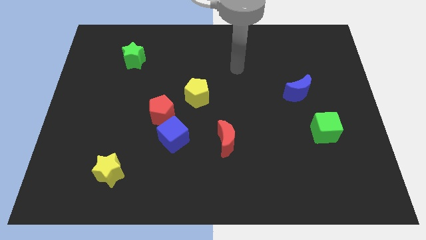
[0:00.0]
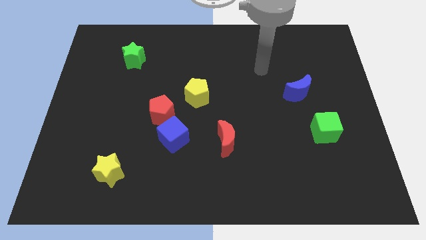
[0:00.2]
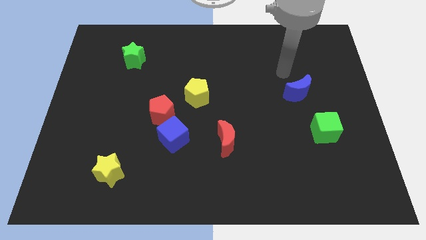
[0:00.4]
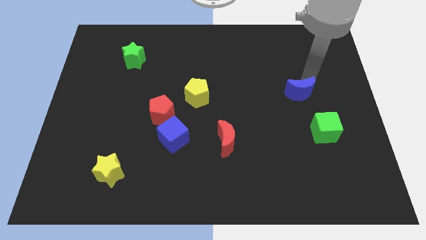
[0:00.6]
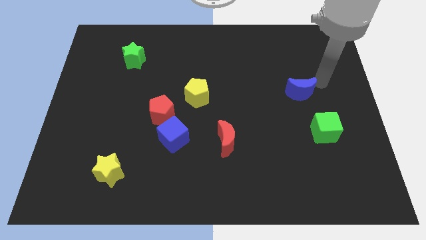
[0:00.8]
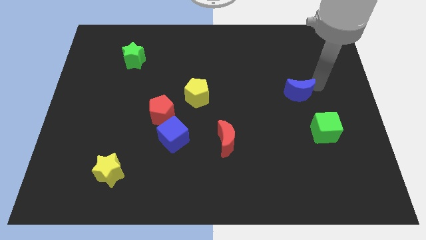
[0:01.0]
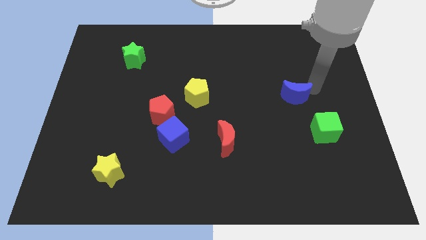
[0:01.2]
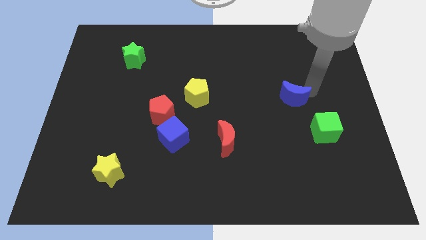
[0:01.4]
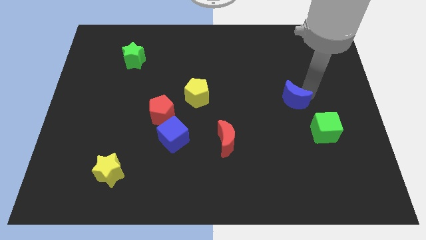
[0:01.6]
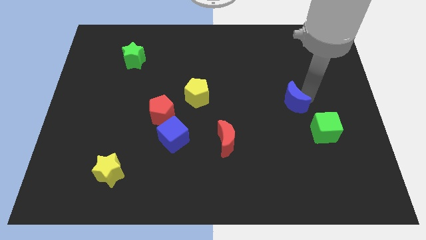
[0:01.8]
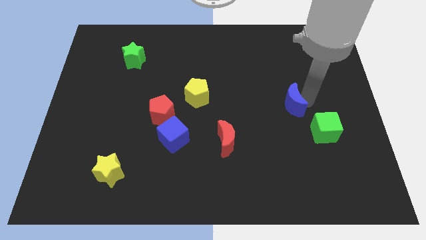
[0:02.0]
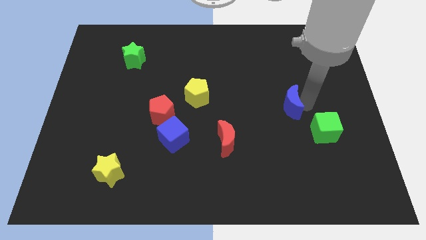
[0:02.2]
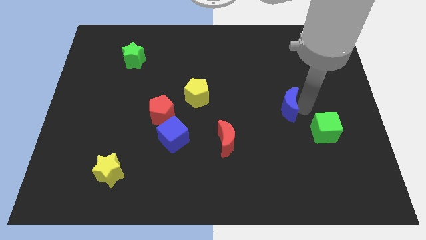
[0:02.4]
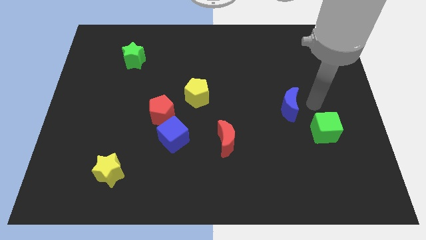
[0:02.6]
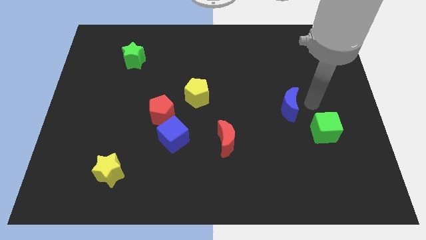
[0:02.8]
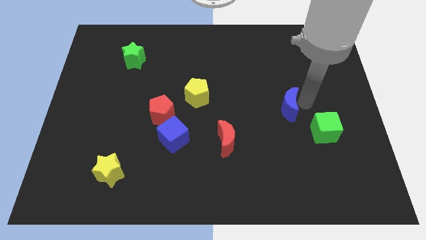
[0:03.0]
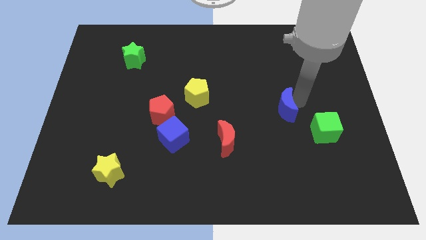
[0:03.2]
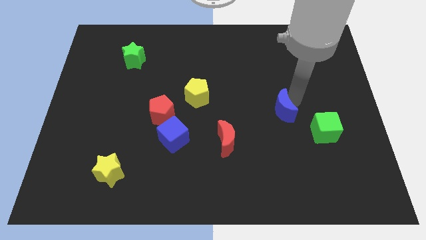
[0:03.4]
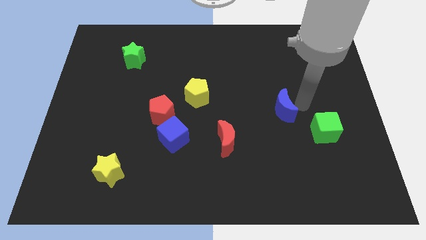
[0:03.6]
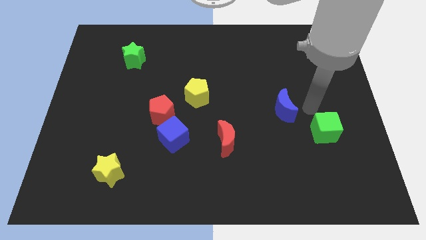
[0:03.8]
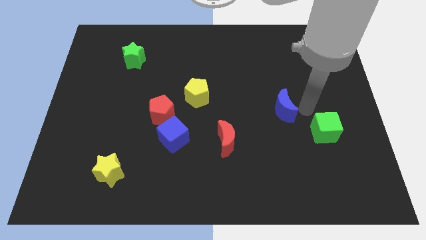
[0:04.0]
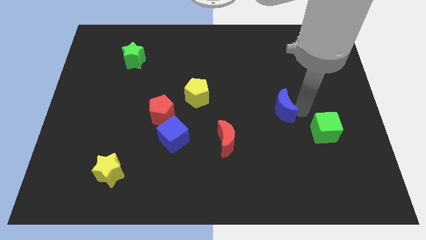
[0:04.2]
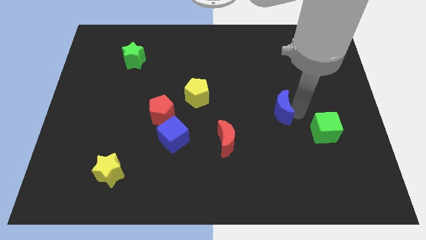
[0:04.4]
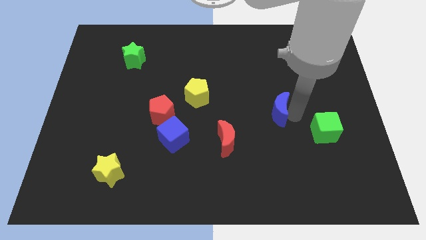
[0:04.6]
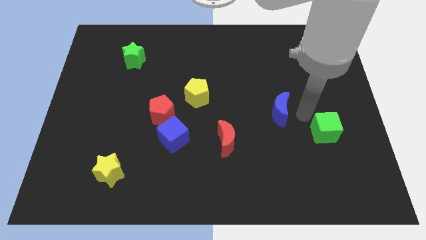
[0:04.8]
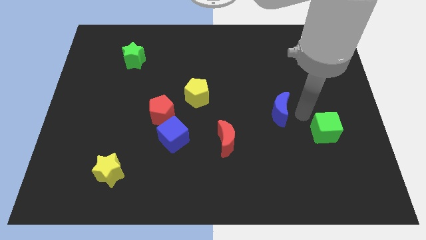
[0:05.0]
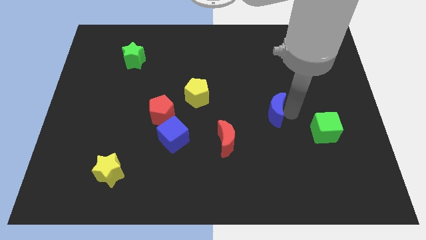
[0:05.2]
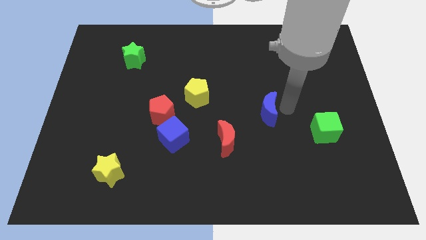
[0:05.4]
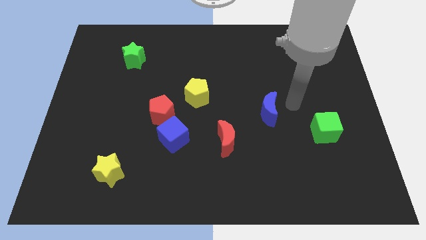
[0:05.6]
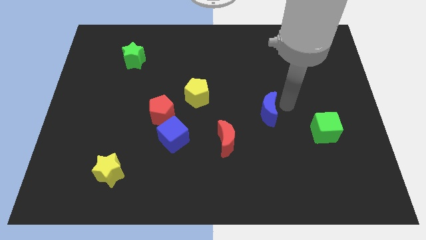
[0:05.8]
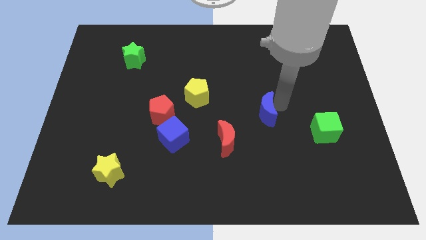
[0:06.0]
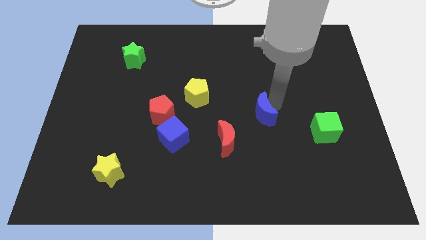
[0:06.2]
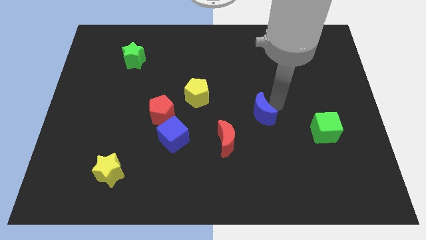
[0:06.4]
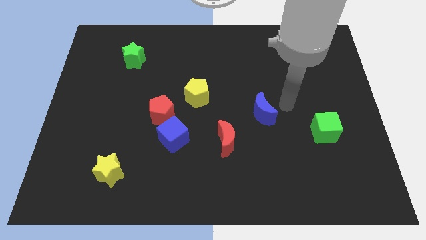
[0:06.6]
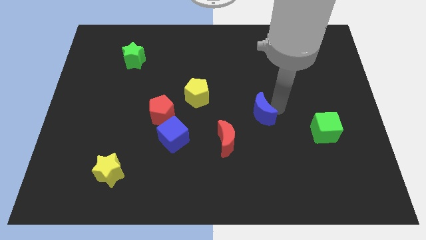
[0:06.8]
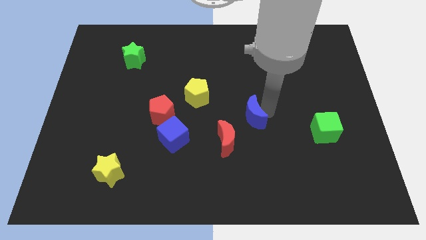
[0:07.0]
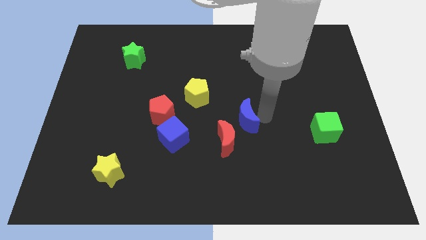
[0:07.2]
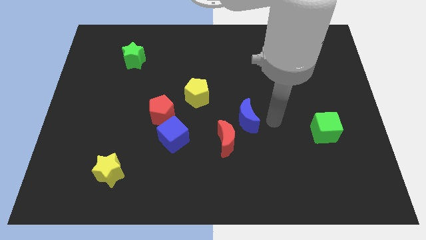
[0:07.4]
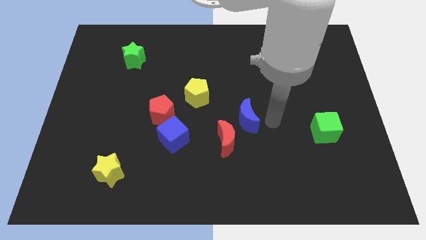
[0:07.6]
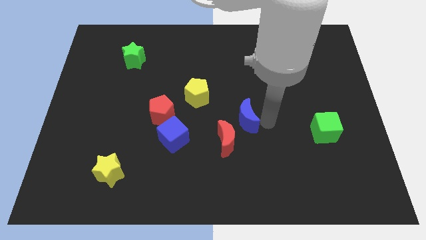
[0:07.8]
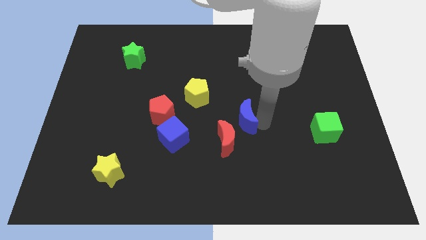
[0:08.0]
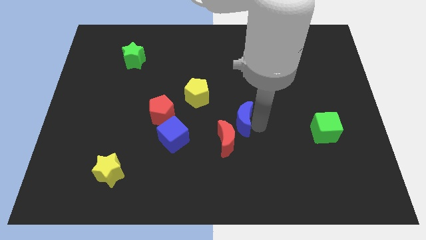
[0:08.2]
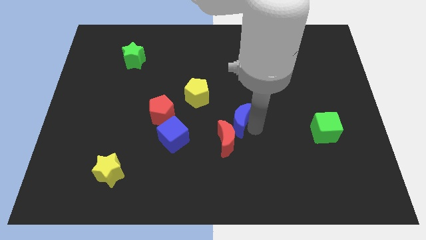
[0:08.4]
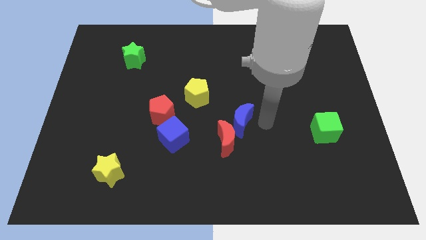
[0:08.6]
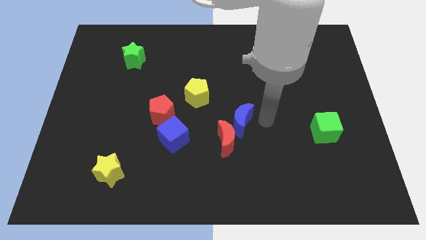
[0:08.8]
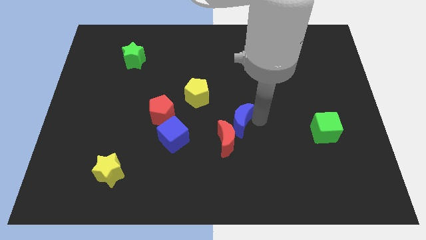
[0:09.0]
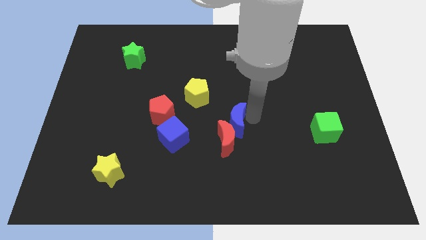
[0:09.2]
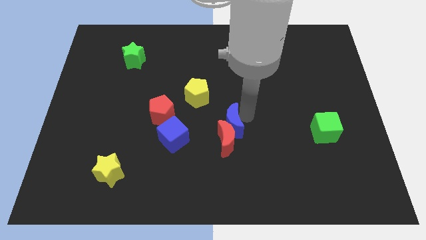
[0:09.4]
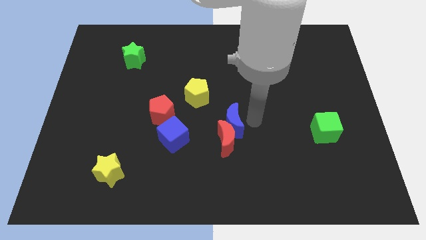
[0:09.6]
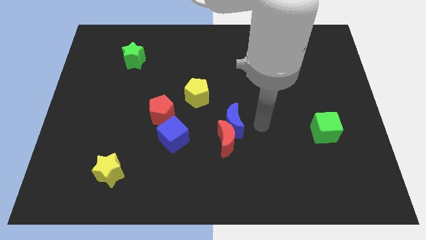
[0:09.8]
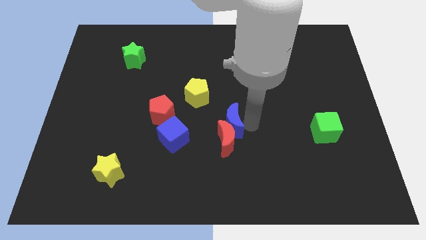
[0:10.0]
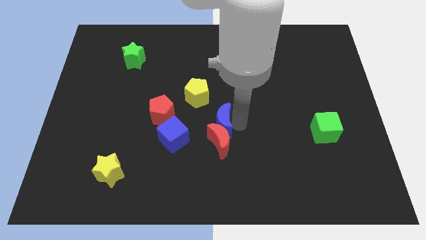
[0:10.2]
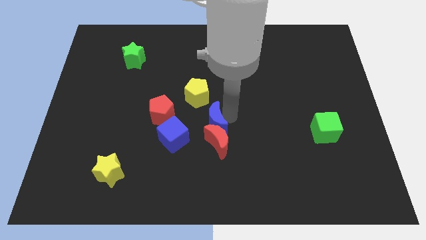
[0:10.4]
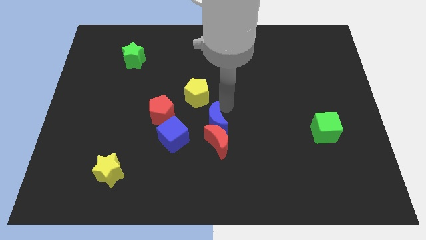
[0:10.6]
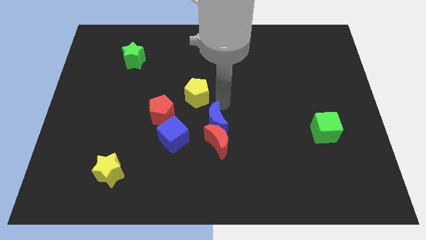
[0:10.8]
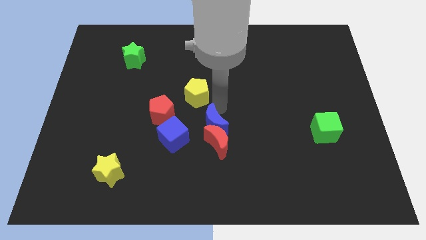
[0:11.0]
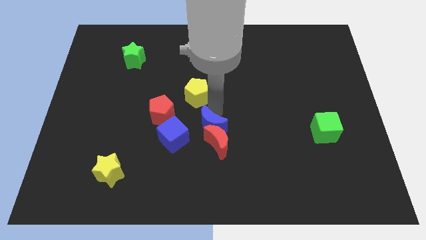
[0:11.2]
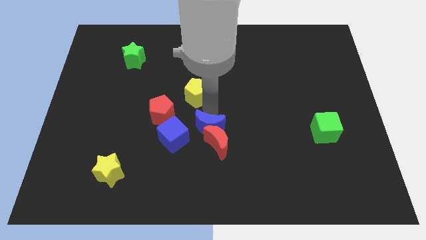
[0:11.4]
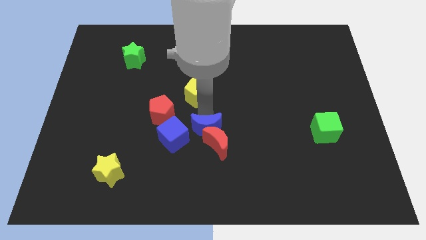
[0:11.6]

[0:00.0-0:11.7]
move the blue moon to the left side of the red moon

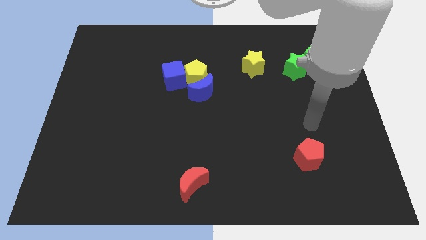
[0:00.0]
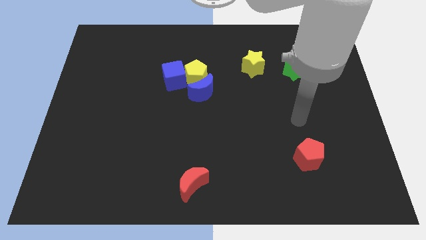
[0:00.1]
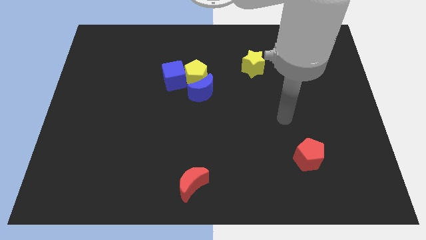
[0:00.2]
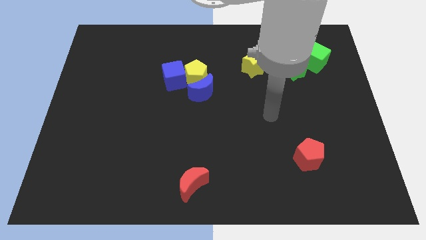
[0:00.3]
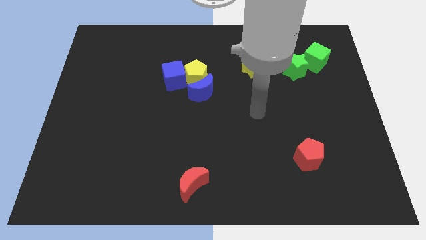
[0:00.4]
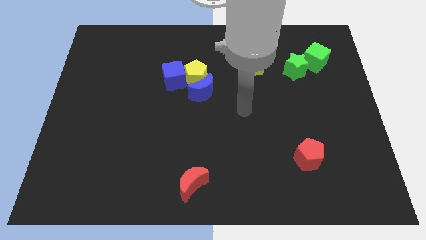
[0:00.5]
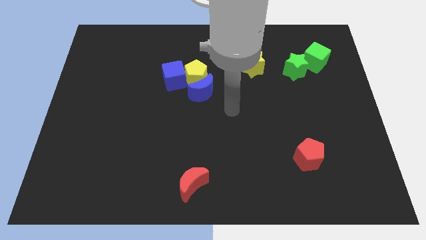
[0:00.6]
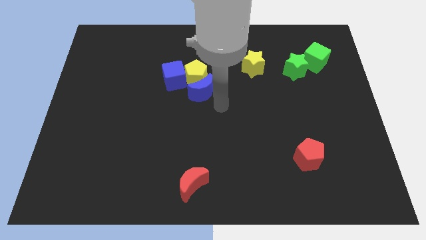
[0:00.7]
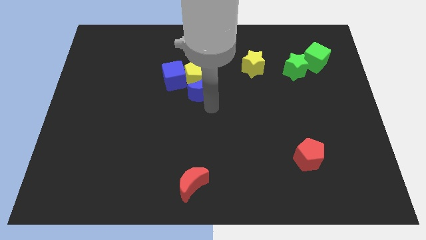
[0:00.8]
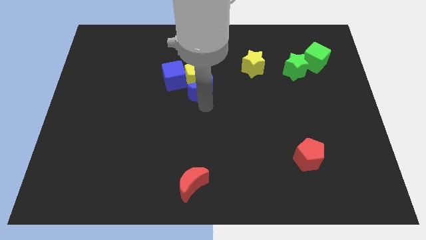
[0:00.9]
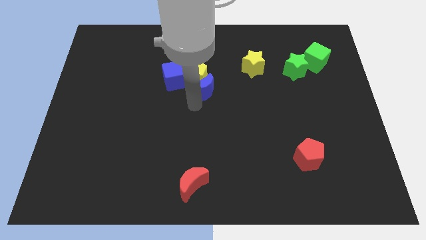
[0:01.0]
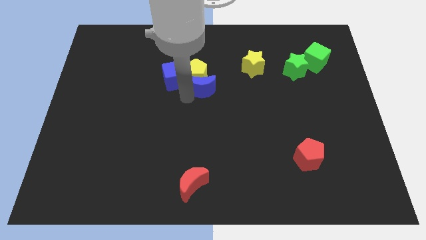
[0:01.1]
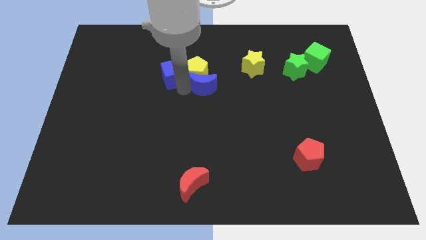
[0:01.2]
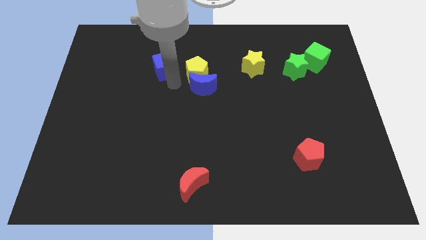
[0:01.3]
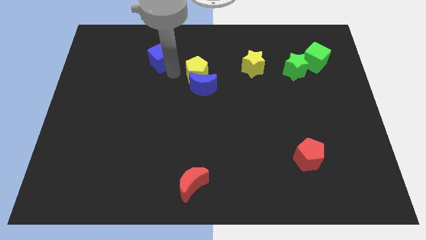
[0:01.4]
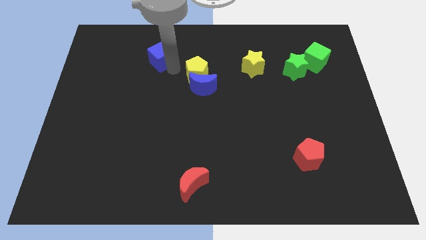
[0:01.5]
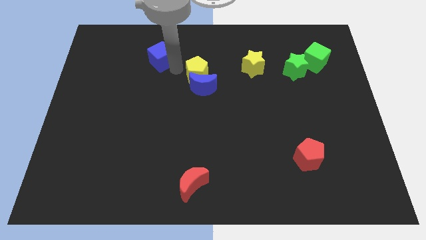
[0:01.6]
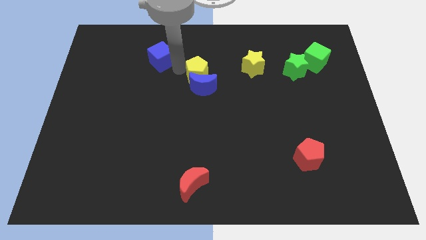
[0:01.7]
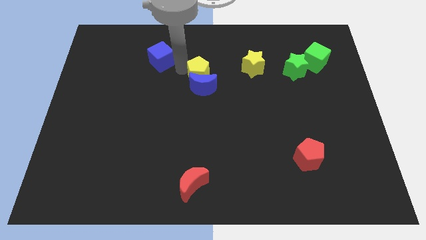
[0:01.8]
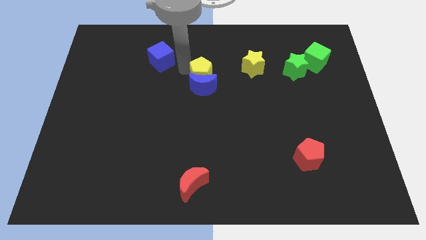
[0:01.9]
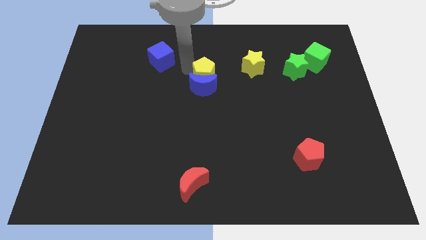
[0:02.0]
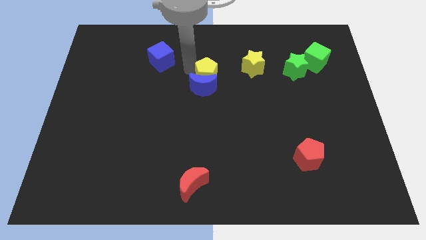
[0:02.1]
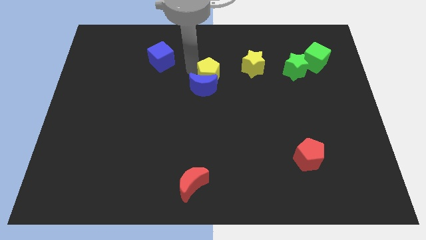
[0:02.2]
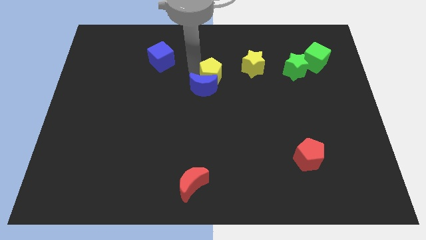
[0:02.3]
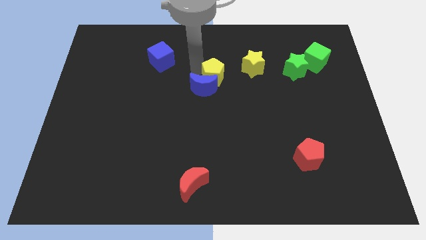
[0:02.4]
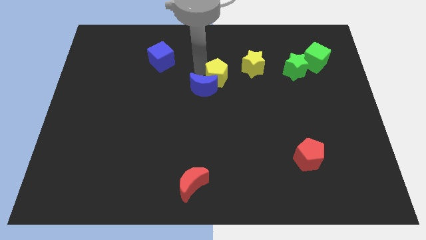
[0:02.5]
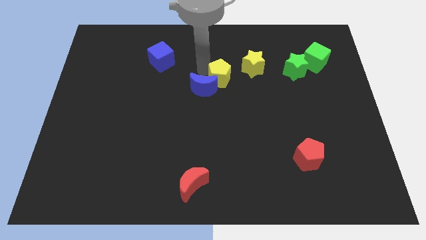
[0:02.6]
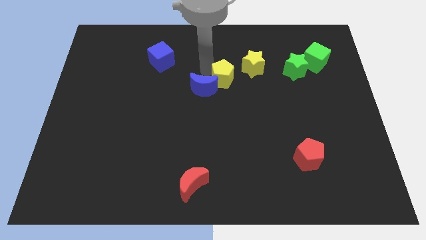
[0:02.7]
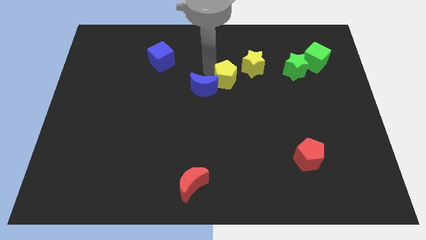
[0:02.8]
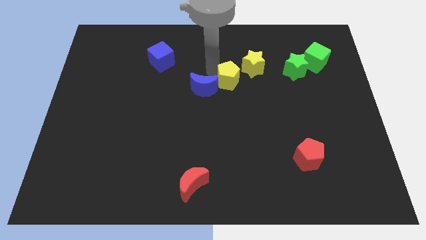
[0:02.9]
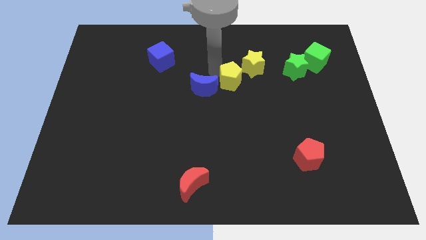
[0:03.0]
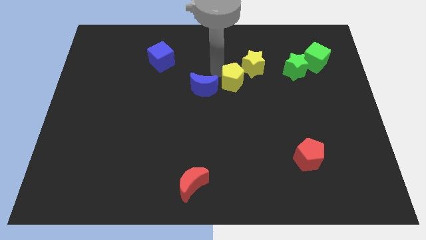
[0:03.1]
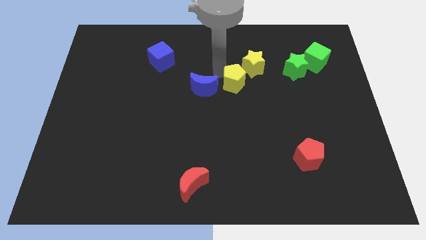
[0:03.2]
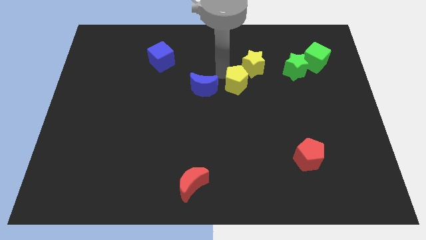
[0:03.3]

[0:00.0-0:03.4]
slide the yellow pentagon to the bottom of the yellow star
